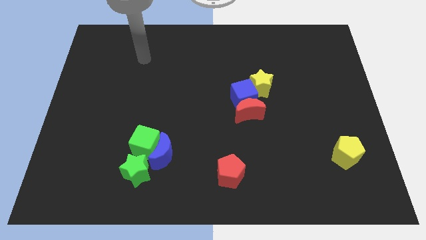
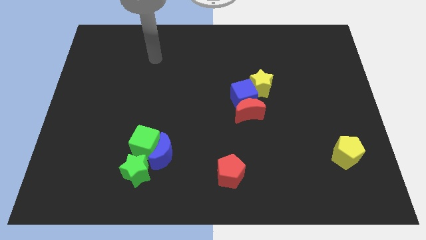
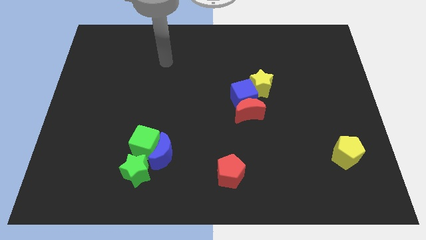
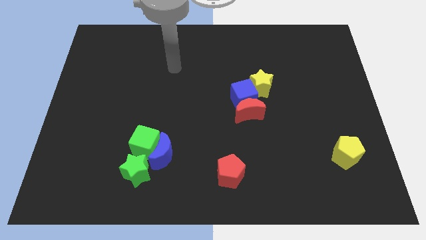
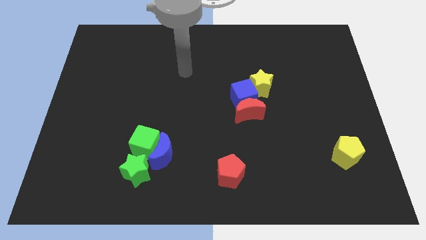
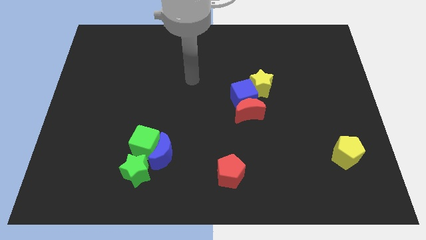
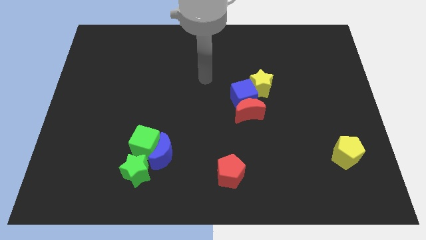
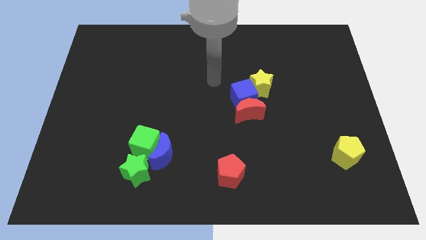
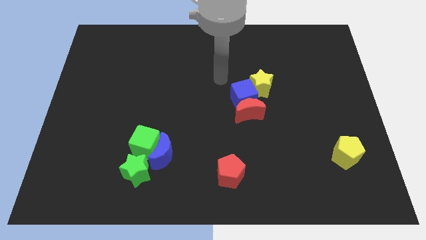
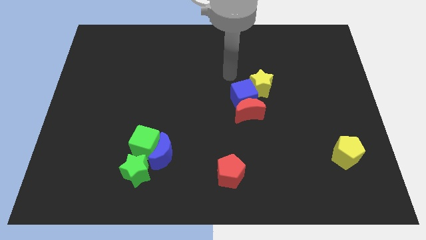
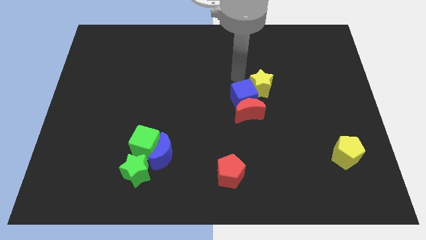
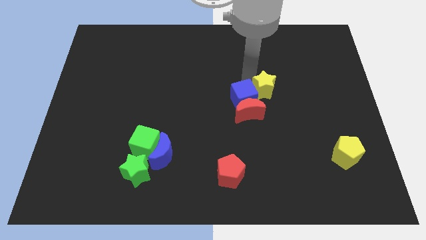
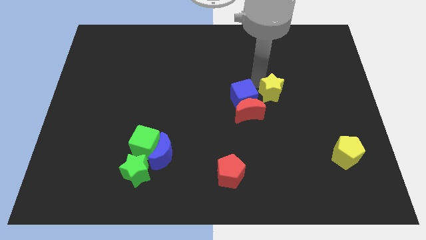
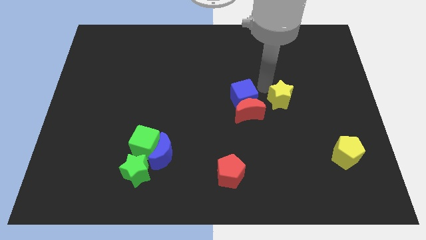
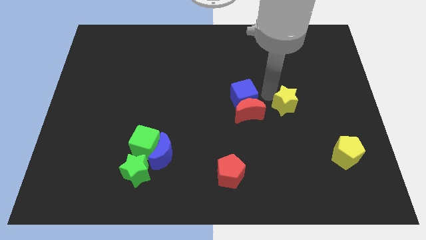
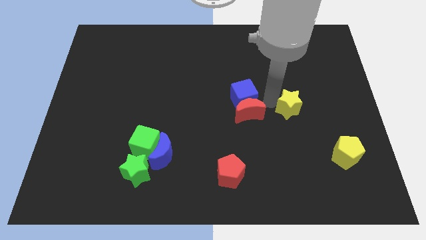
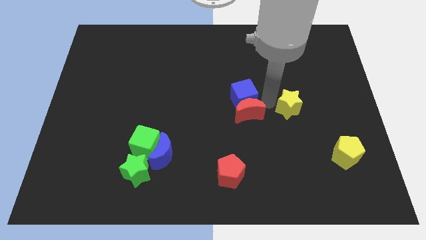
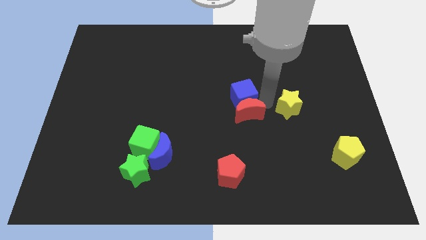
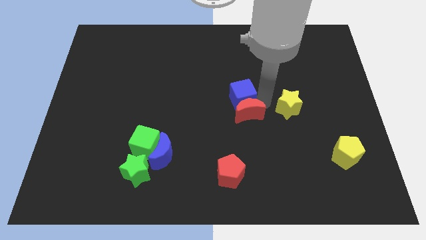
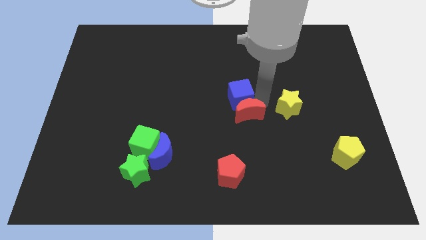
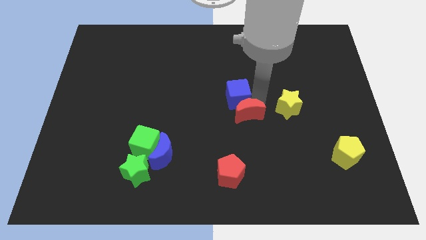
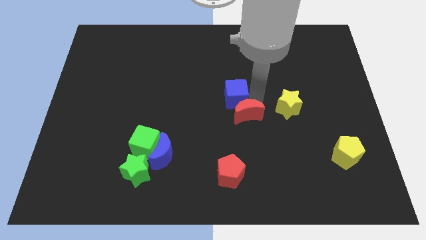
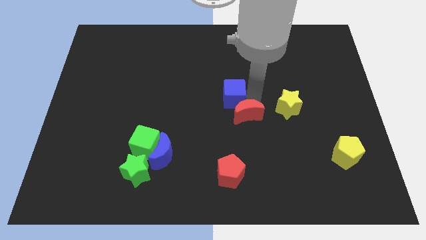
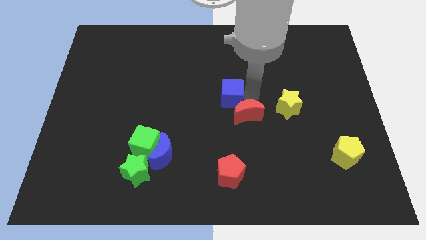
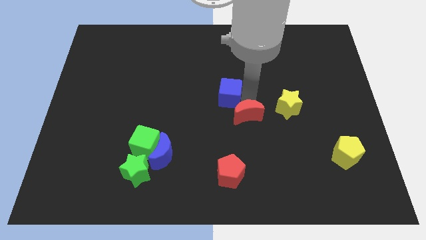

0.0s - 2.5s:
move the blue cube away from the red moon and yellow star

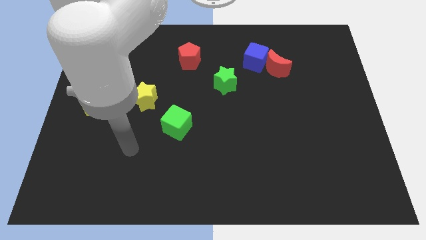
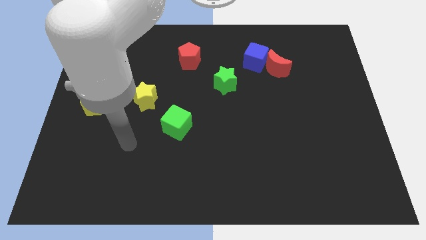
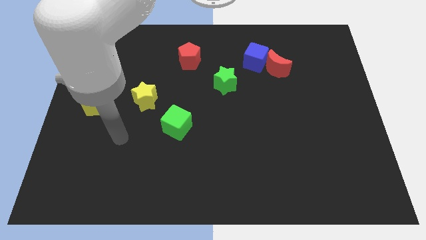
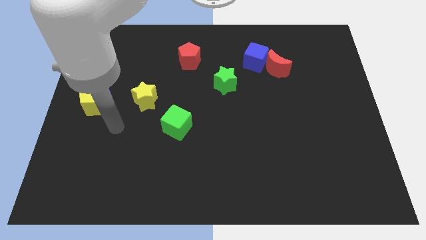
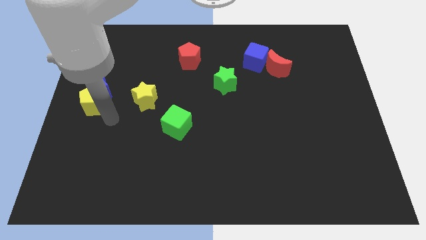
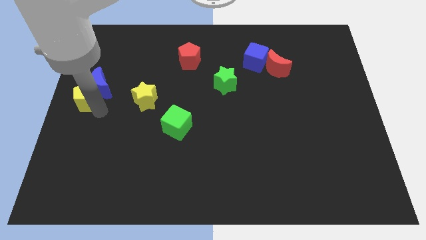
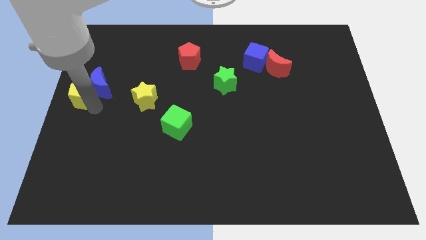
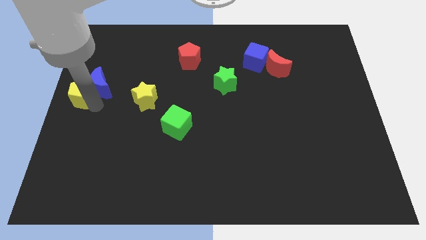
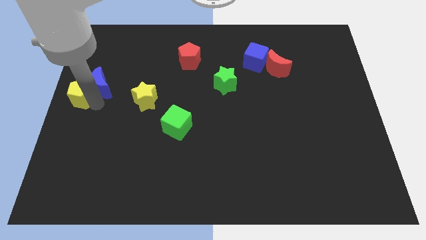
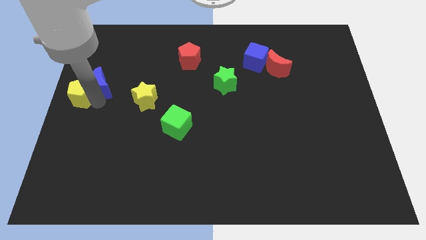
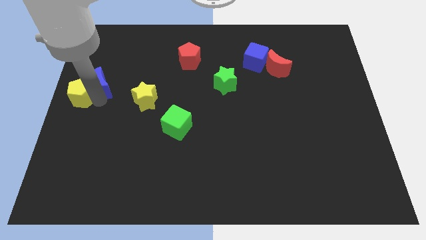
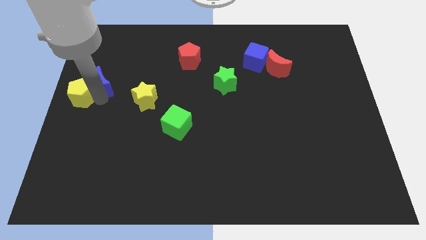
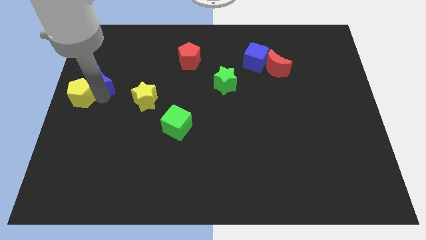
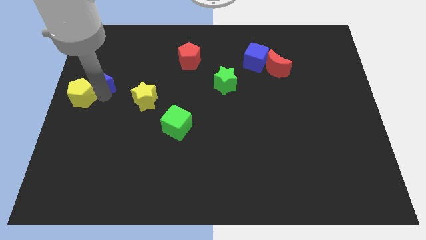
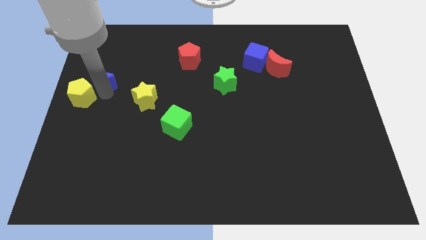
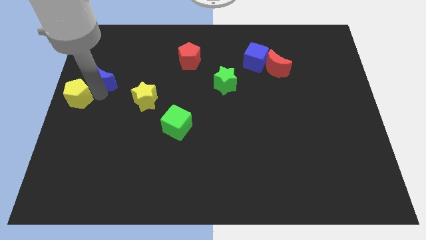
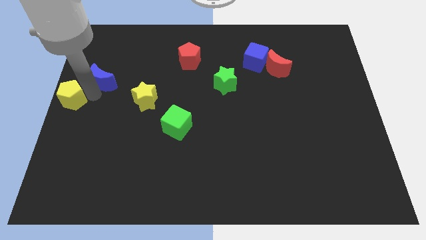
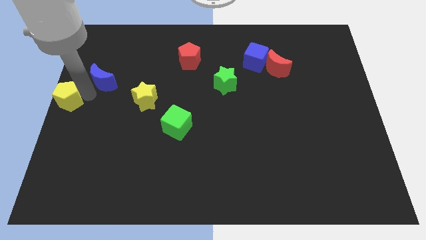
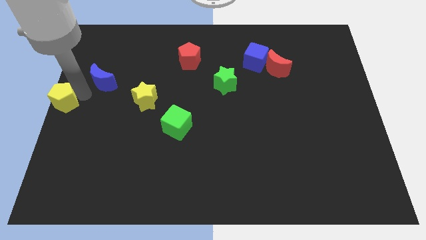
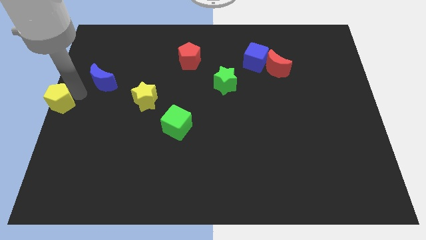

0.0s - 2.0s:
separate the blue moon from the yellow pentagon

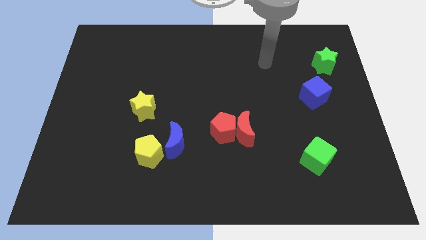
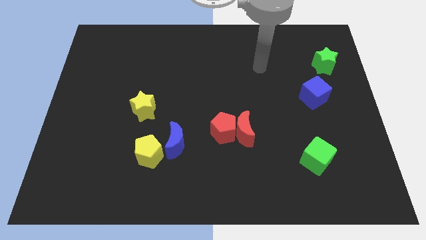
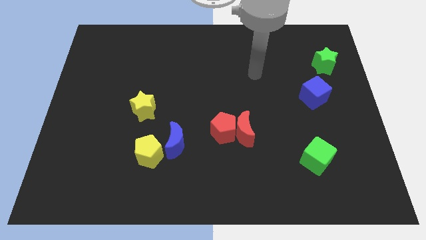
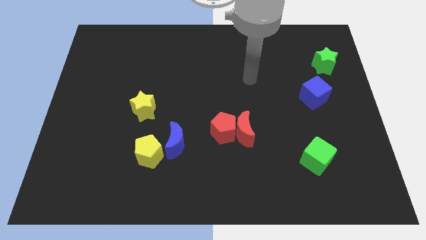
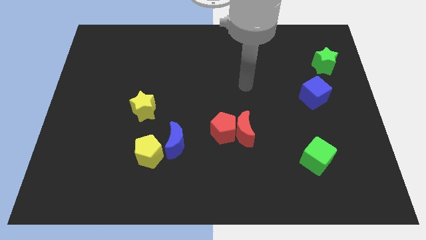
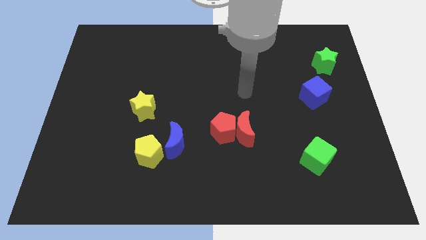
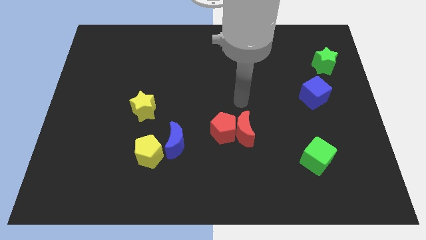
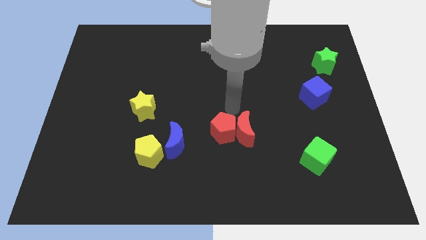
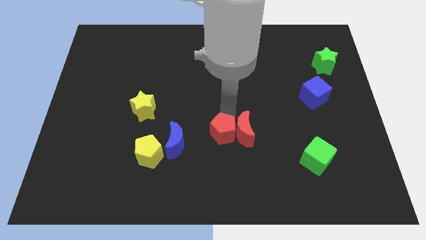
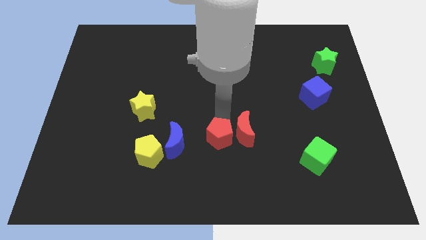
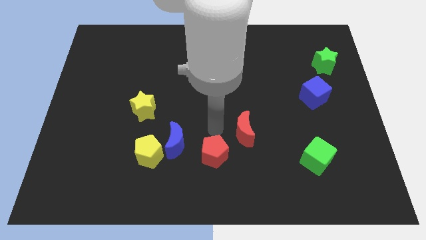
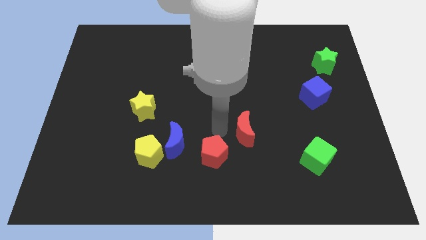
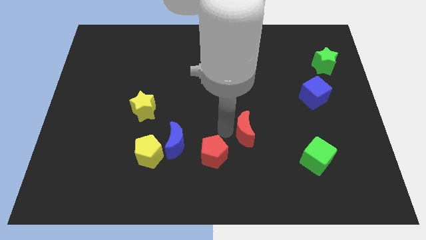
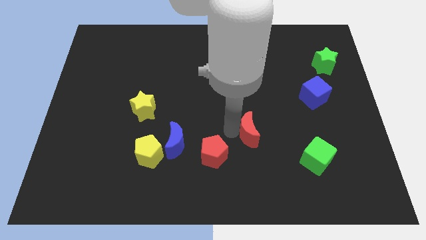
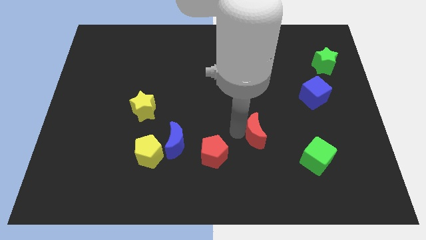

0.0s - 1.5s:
pull the red moon apart from the red pentagon

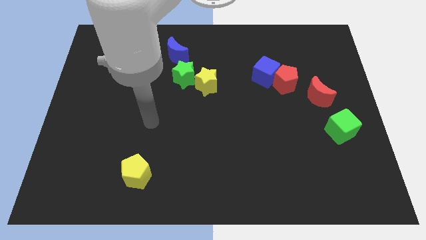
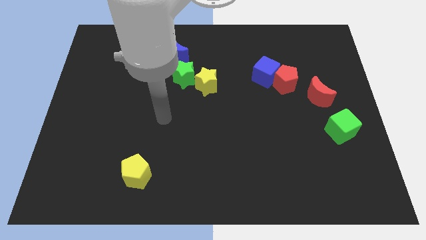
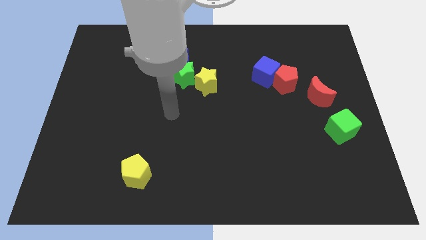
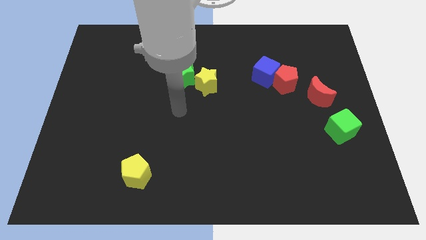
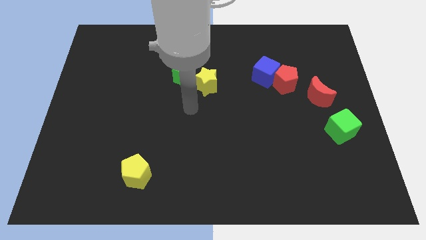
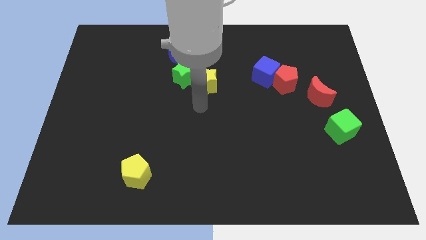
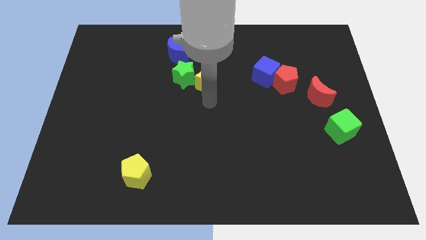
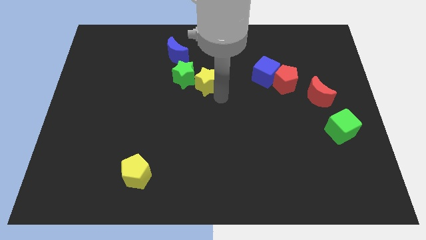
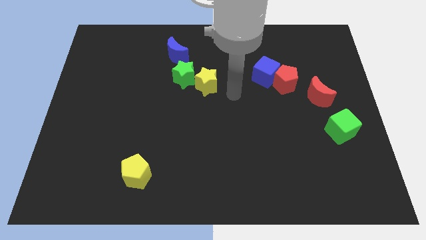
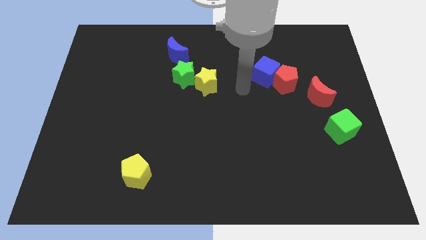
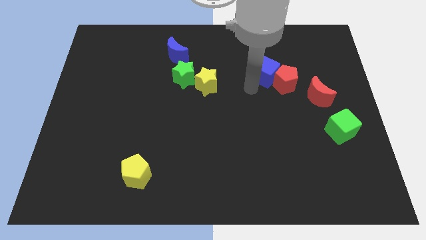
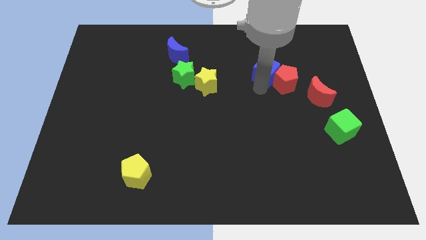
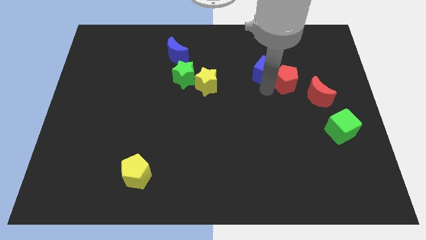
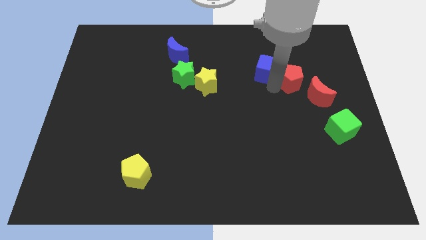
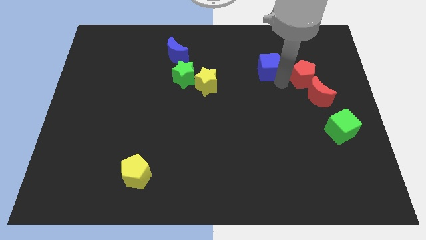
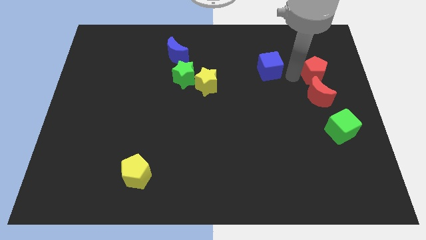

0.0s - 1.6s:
move the blue cube away from the red pentagon

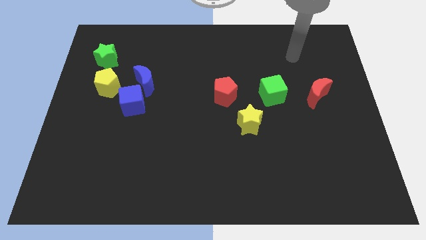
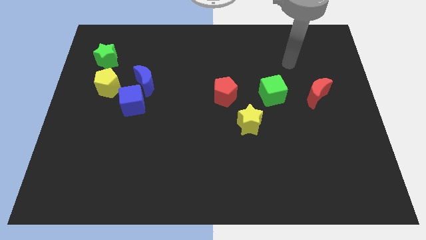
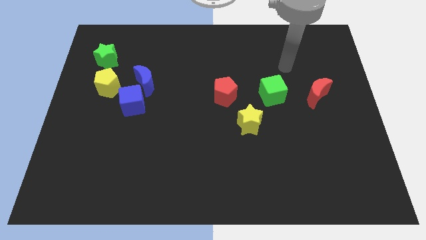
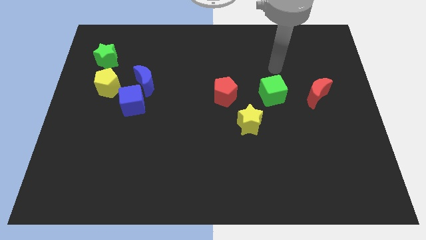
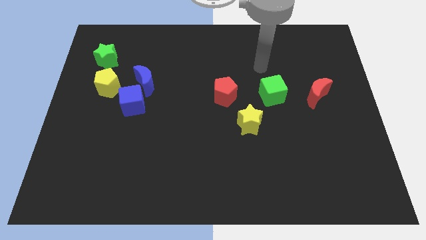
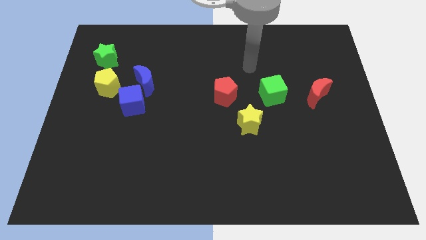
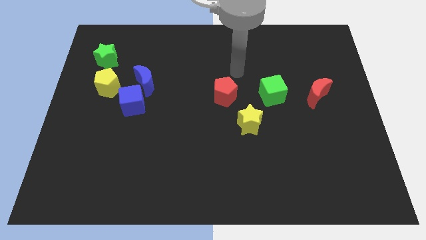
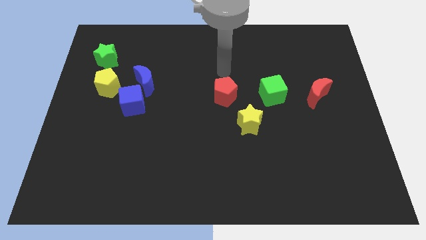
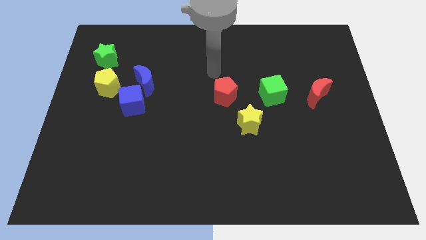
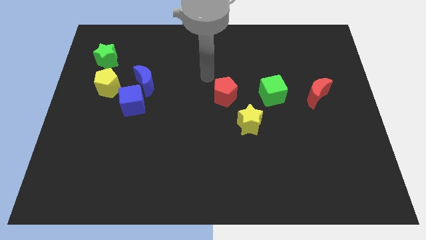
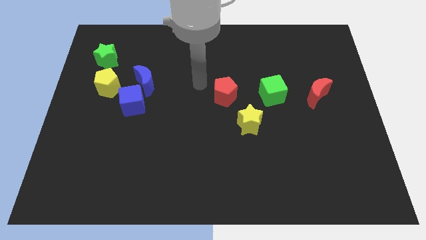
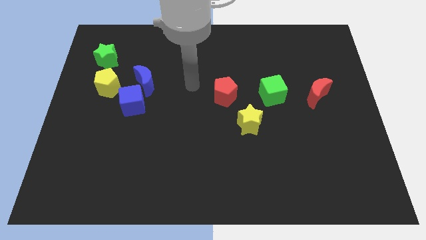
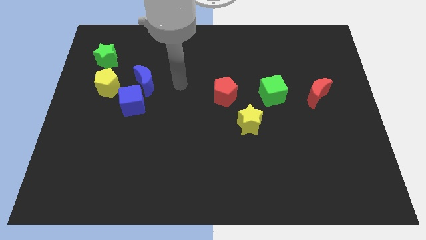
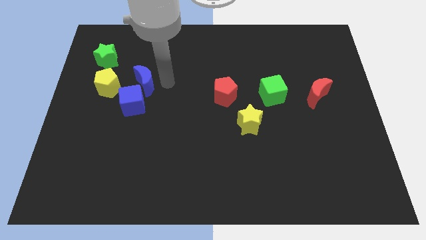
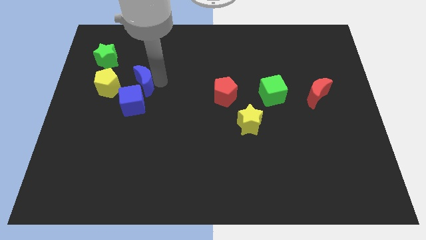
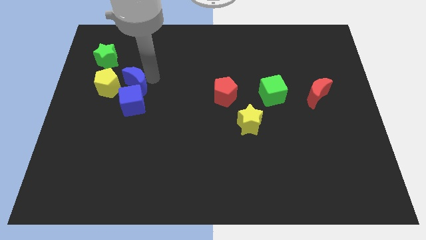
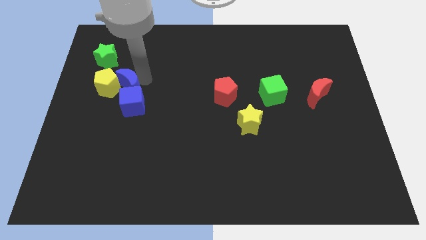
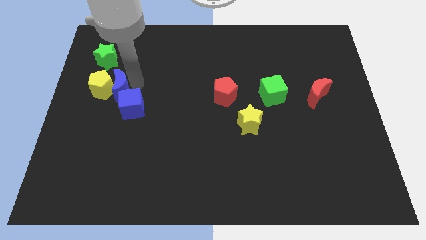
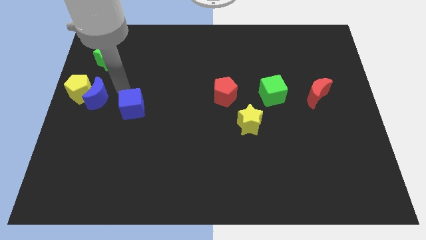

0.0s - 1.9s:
pull the blue cube apart from the blue moon and yellow pentagon
